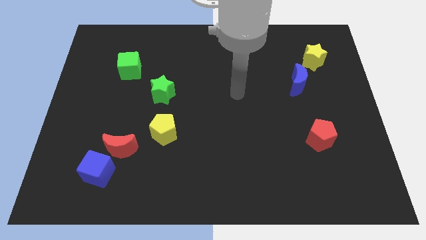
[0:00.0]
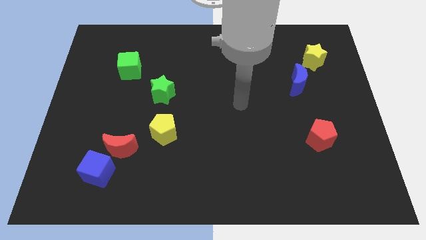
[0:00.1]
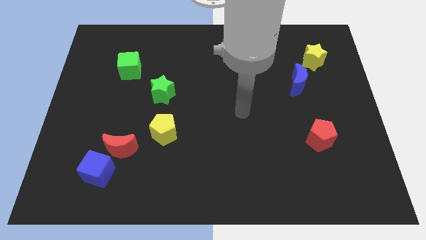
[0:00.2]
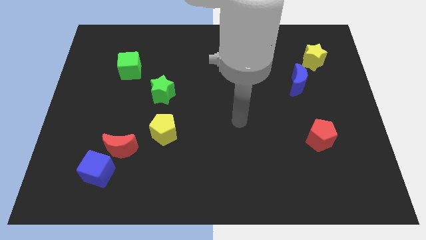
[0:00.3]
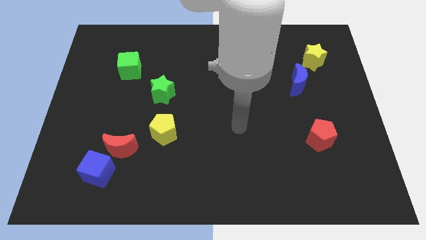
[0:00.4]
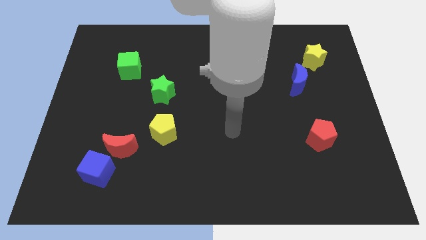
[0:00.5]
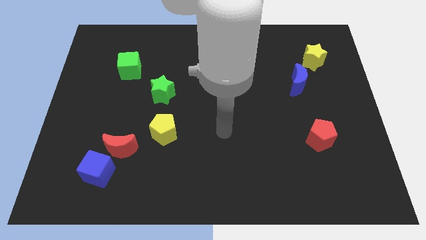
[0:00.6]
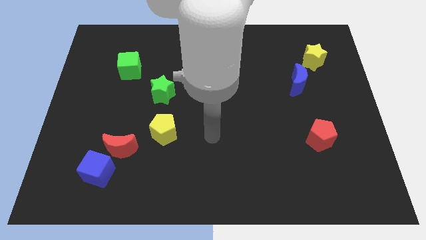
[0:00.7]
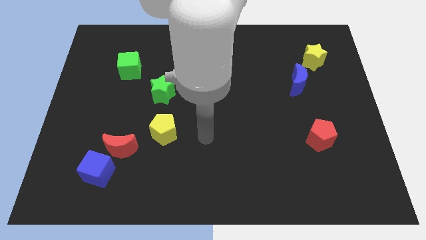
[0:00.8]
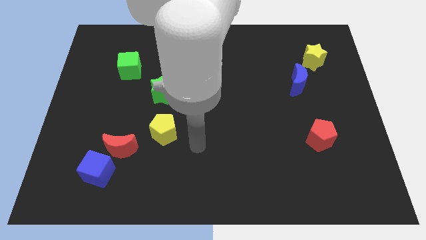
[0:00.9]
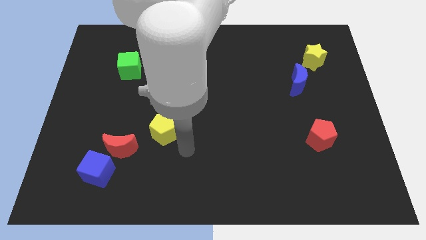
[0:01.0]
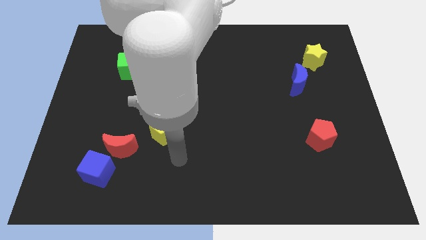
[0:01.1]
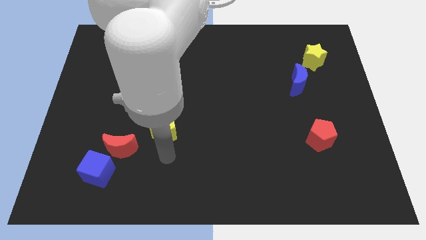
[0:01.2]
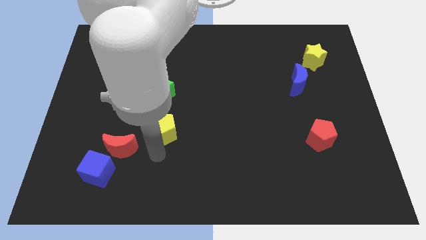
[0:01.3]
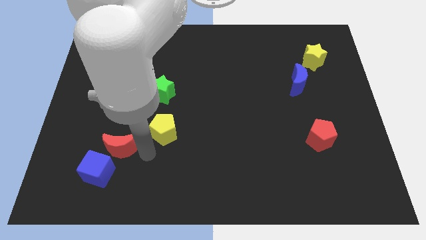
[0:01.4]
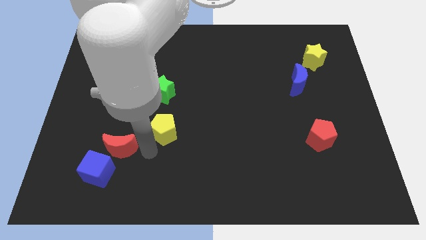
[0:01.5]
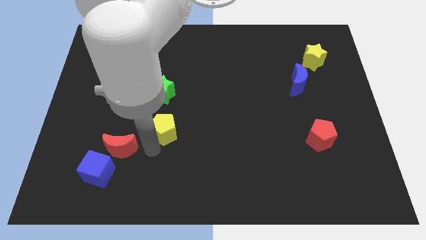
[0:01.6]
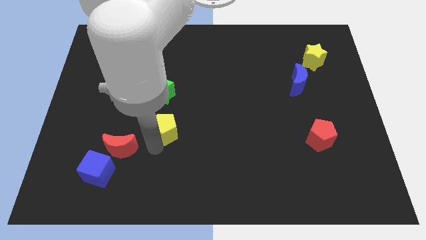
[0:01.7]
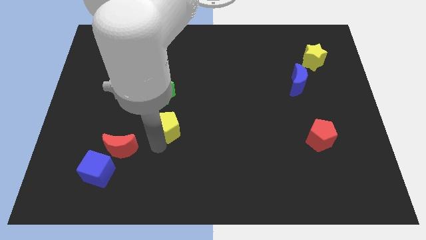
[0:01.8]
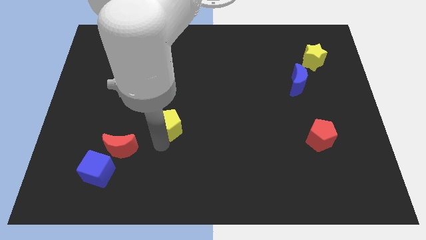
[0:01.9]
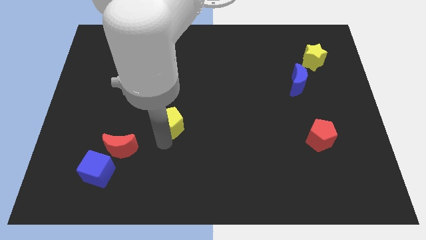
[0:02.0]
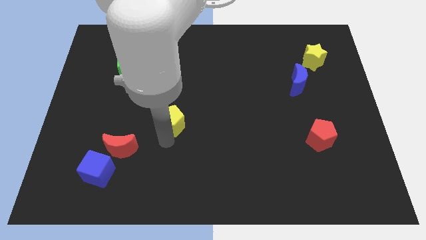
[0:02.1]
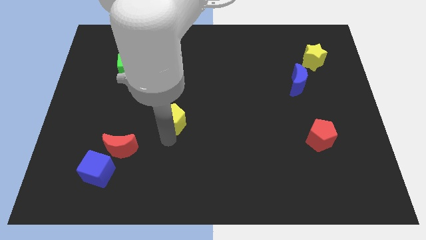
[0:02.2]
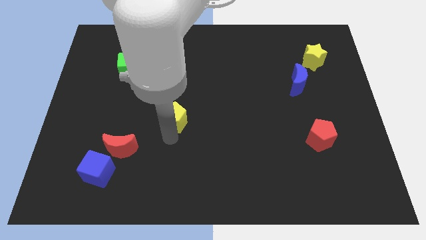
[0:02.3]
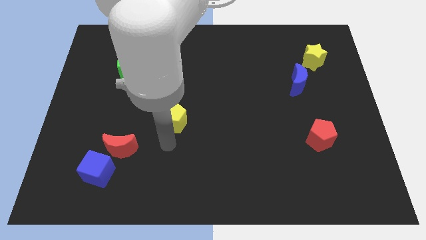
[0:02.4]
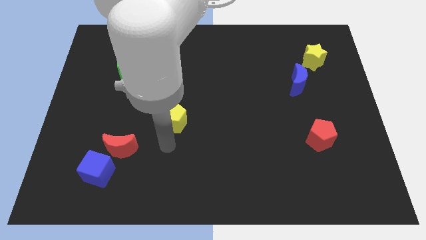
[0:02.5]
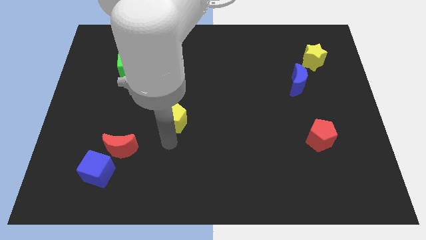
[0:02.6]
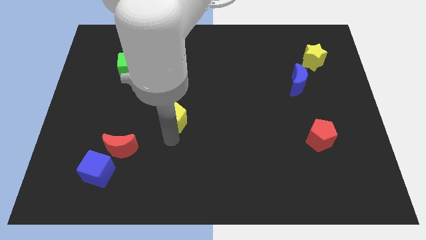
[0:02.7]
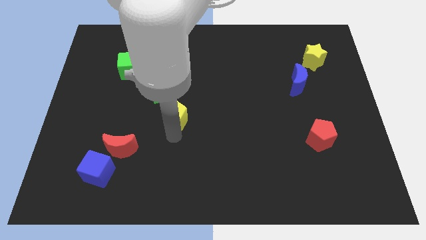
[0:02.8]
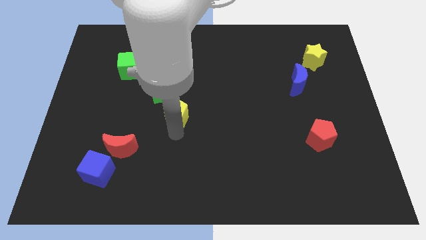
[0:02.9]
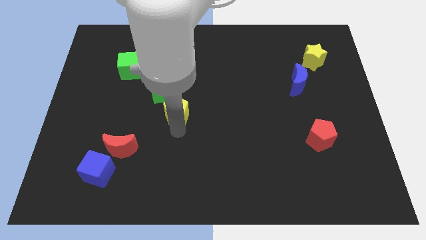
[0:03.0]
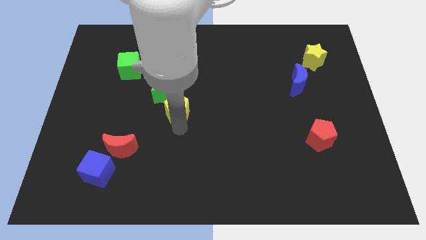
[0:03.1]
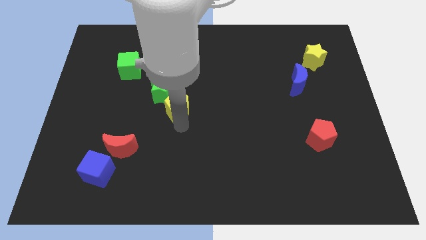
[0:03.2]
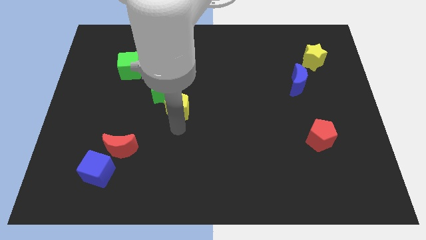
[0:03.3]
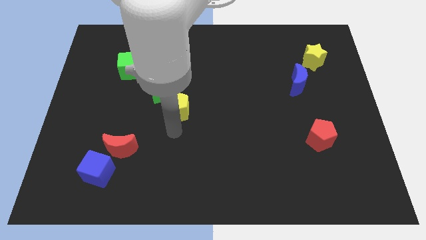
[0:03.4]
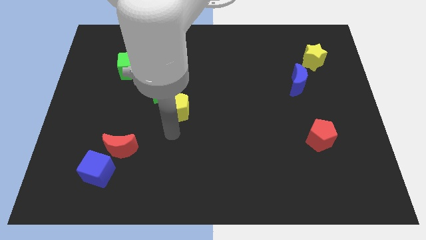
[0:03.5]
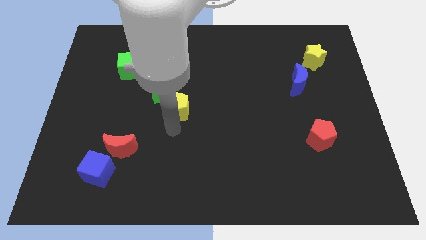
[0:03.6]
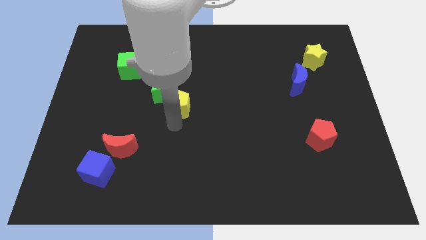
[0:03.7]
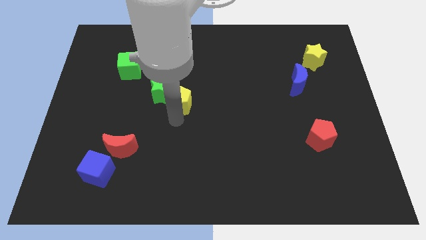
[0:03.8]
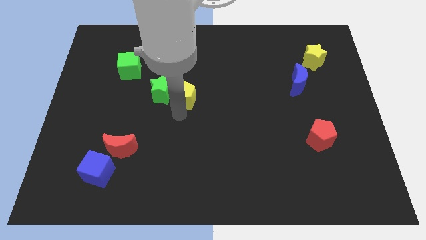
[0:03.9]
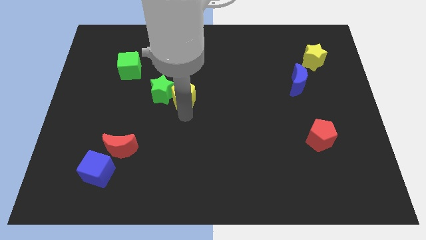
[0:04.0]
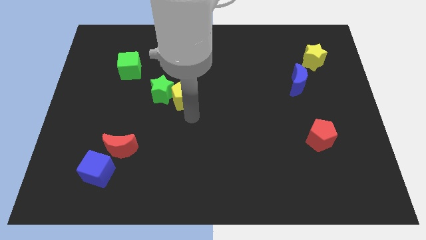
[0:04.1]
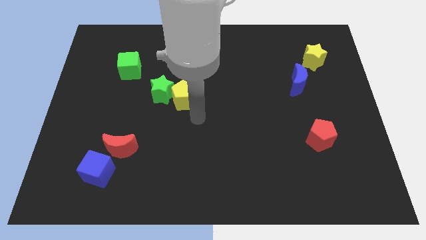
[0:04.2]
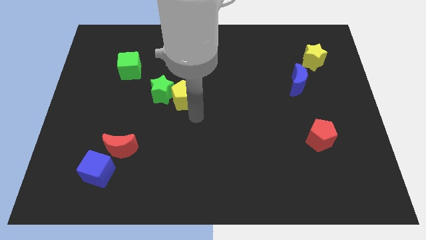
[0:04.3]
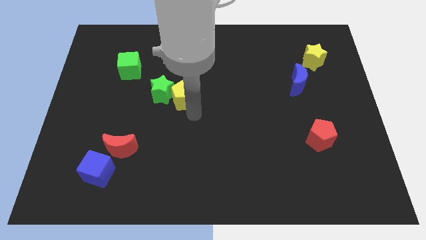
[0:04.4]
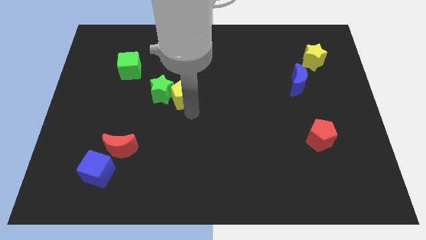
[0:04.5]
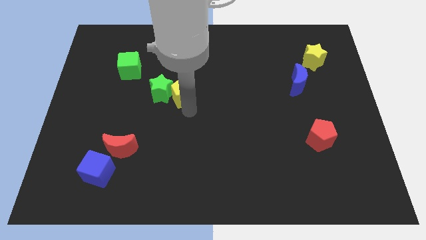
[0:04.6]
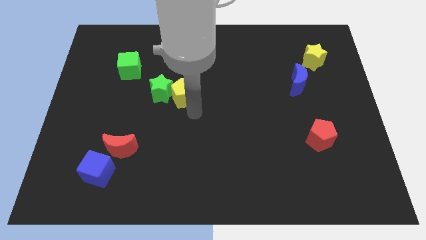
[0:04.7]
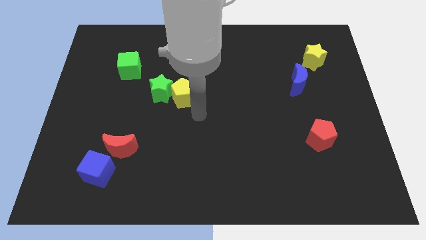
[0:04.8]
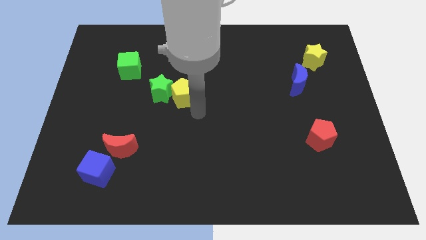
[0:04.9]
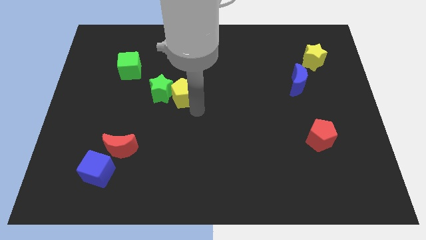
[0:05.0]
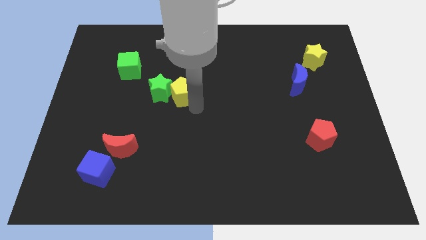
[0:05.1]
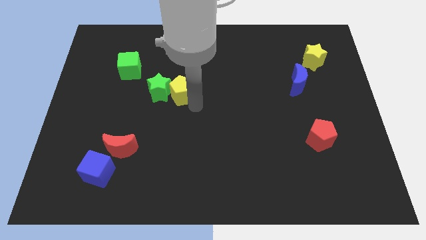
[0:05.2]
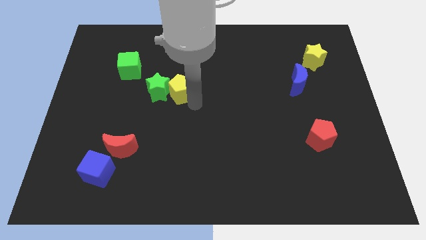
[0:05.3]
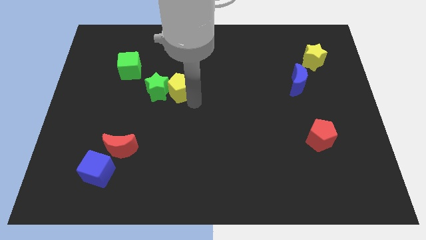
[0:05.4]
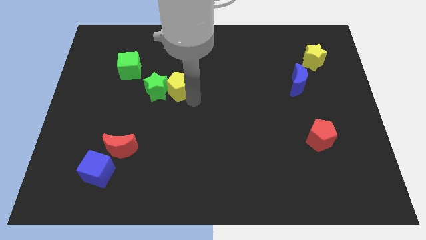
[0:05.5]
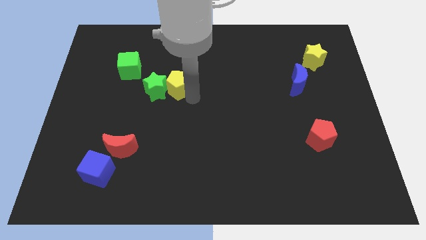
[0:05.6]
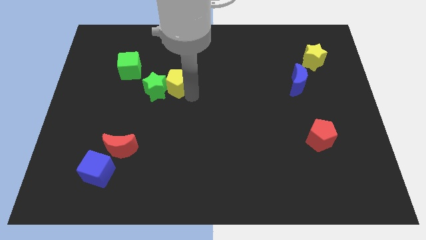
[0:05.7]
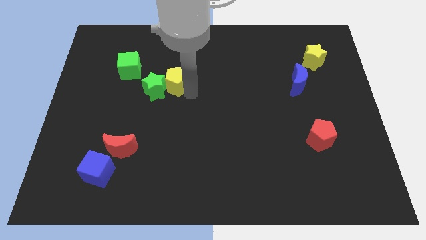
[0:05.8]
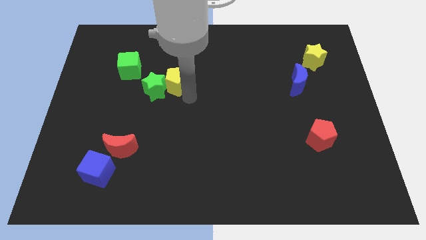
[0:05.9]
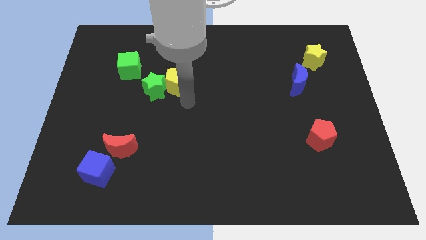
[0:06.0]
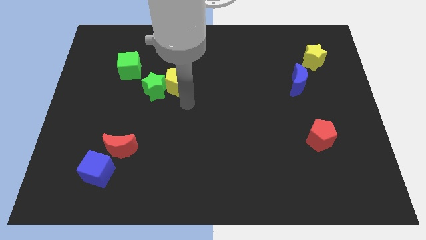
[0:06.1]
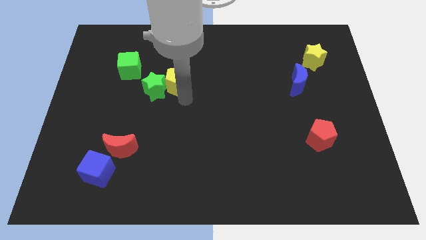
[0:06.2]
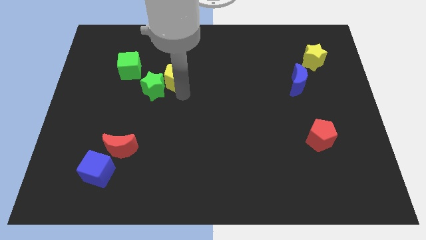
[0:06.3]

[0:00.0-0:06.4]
slide the yellow pentagon just right of the green cube

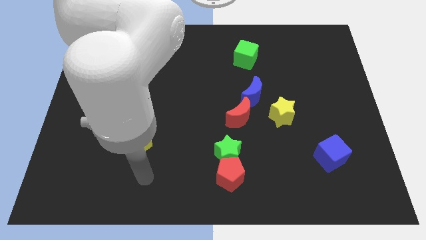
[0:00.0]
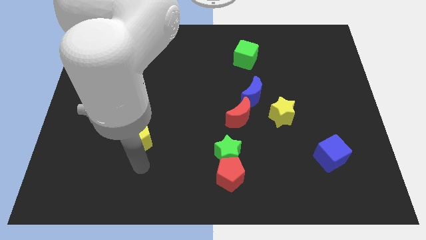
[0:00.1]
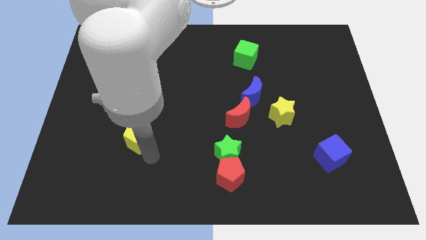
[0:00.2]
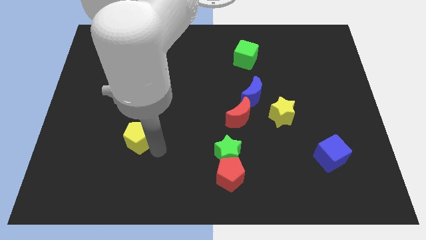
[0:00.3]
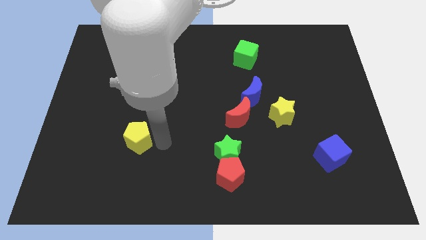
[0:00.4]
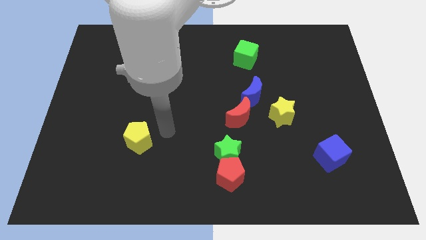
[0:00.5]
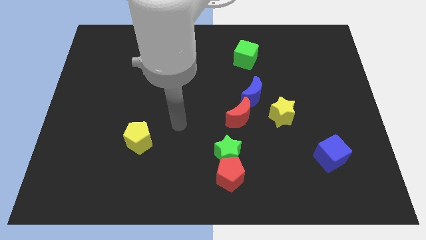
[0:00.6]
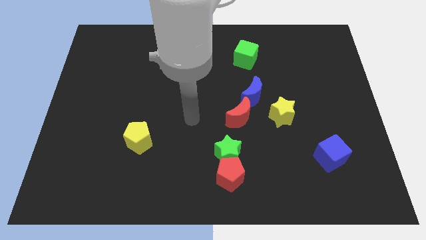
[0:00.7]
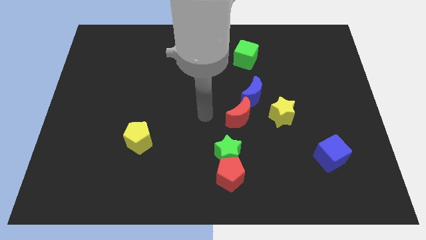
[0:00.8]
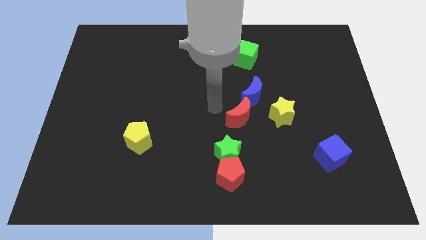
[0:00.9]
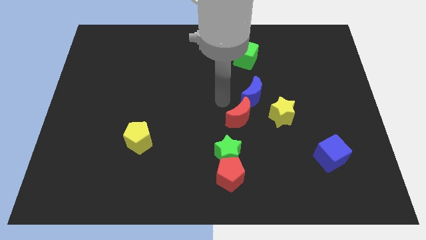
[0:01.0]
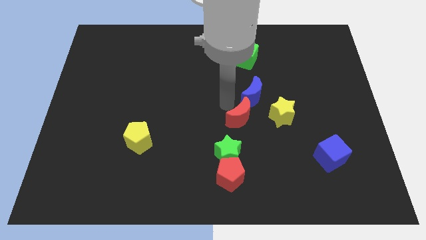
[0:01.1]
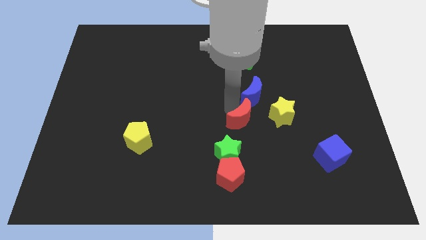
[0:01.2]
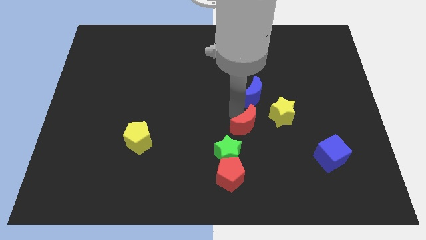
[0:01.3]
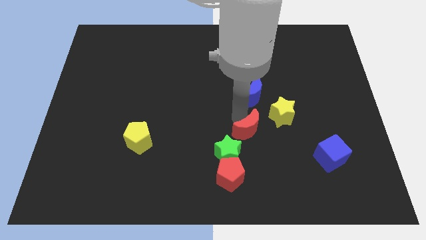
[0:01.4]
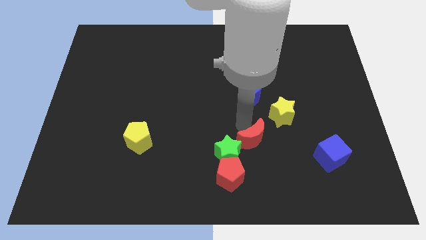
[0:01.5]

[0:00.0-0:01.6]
slide the red moon right of the green star
